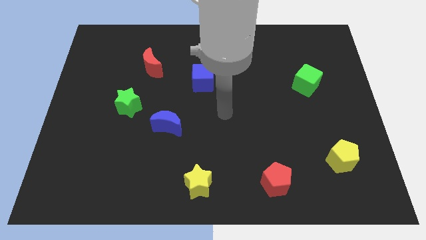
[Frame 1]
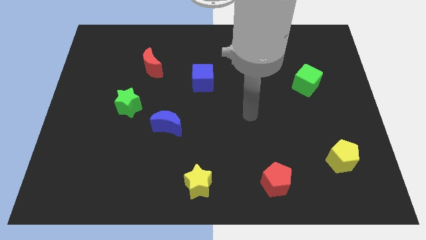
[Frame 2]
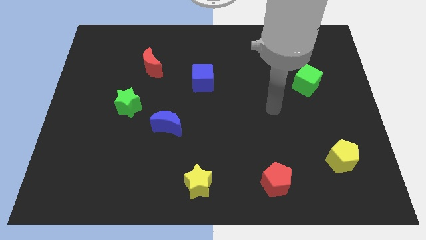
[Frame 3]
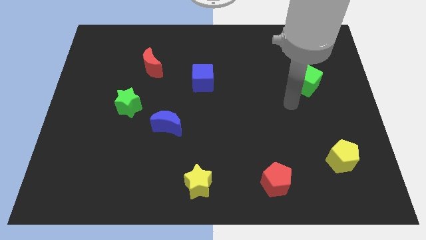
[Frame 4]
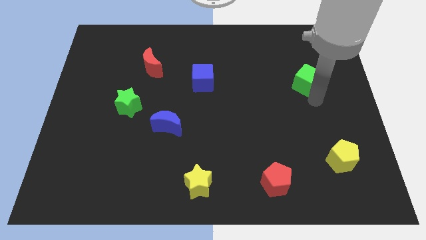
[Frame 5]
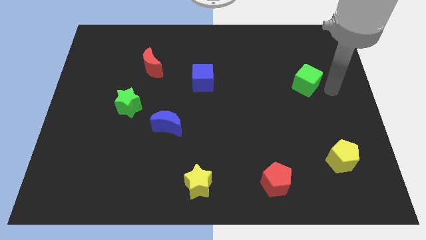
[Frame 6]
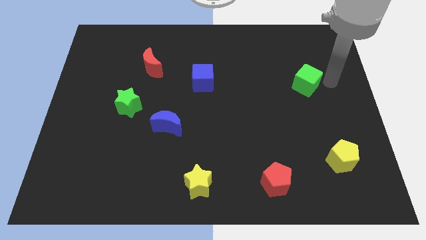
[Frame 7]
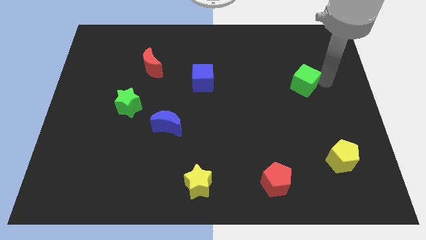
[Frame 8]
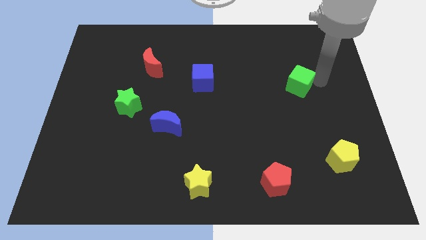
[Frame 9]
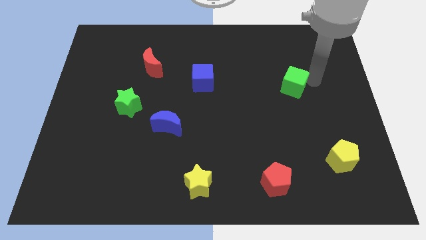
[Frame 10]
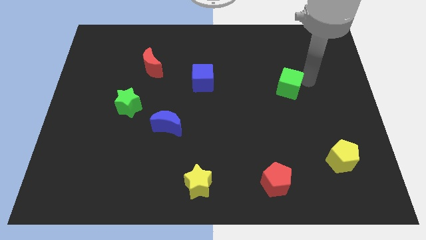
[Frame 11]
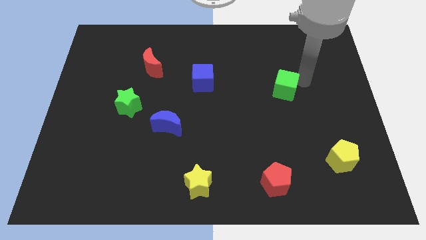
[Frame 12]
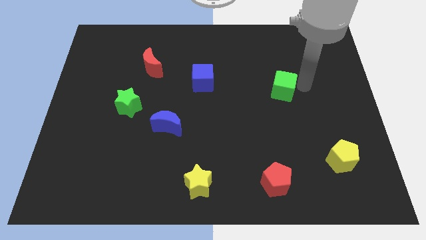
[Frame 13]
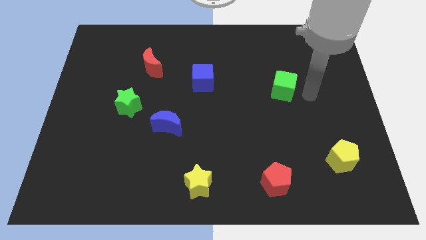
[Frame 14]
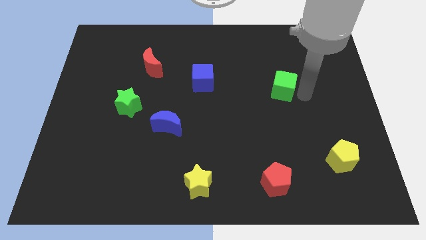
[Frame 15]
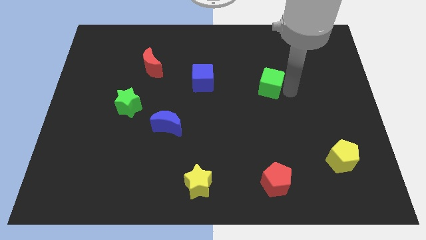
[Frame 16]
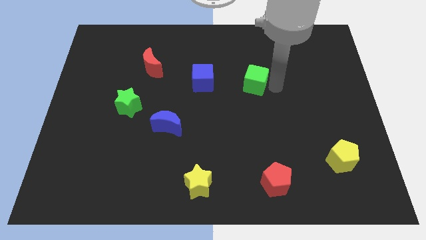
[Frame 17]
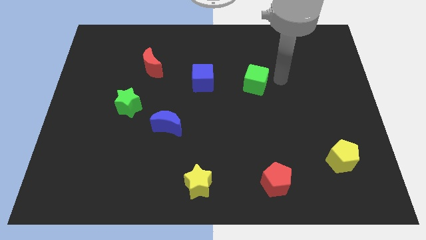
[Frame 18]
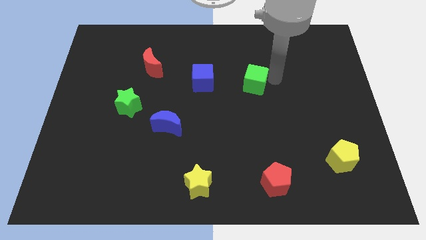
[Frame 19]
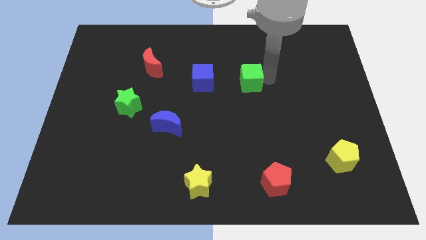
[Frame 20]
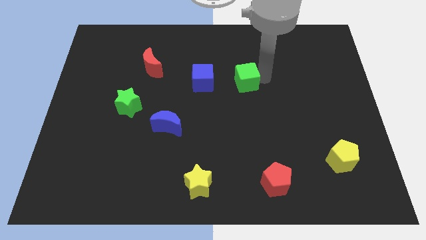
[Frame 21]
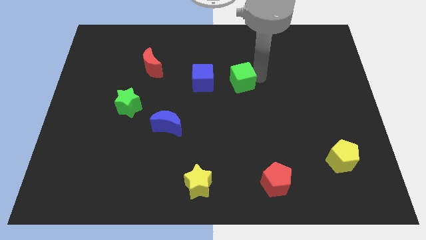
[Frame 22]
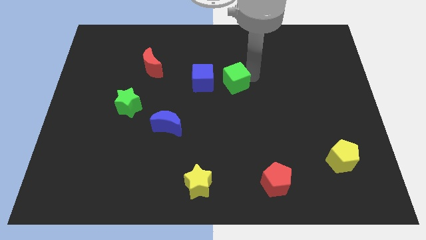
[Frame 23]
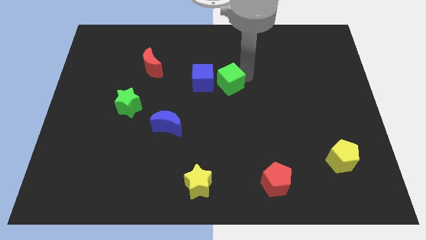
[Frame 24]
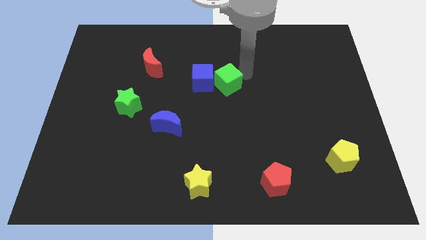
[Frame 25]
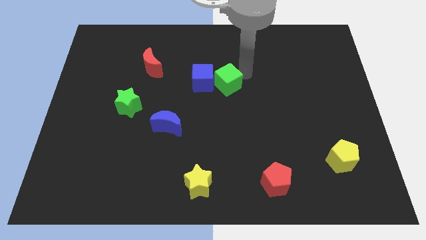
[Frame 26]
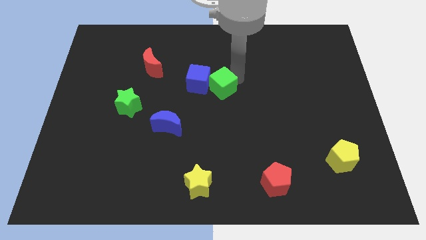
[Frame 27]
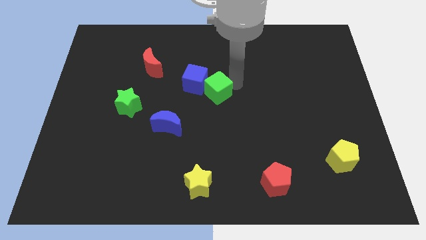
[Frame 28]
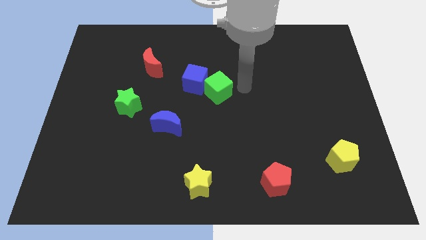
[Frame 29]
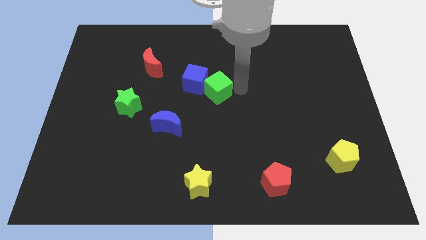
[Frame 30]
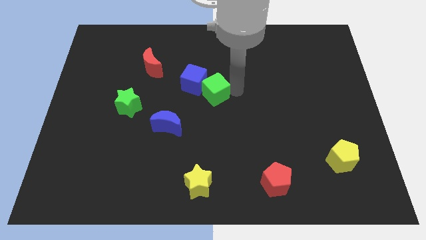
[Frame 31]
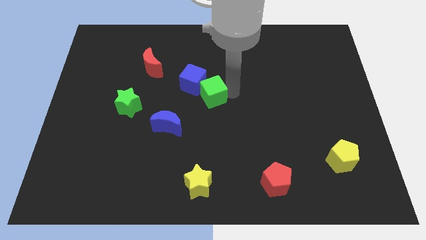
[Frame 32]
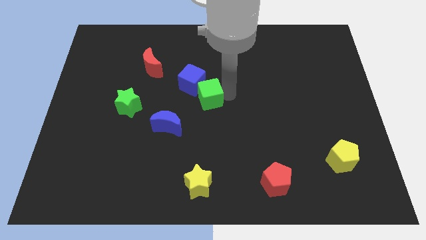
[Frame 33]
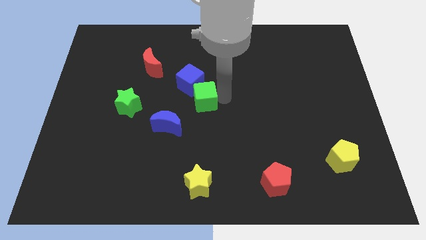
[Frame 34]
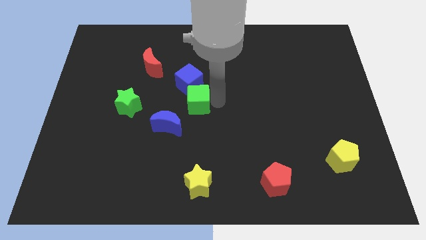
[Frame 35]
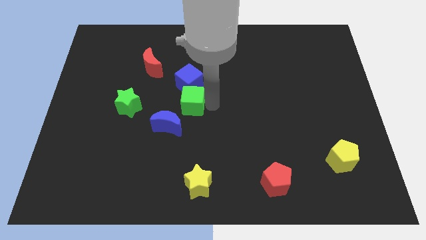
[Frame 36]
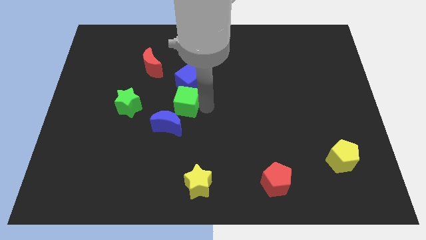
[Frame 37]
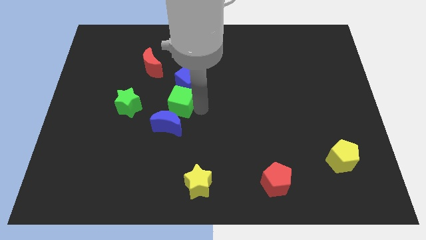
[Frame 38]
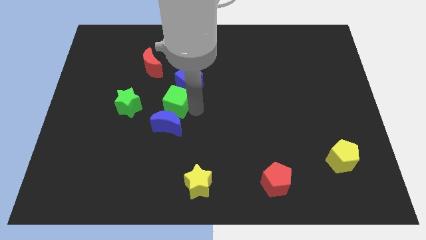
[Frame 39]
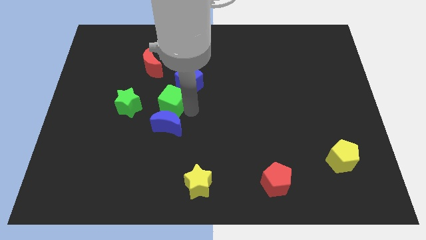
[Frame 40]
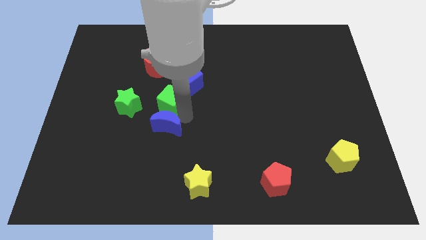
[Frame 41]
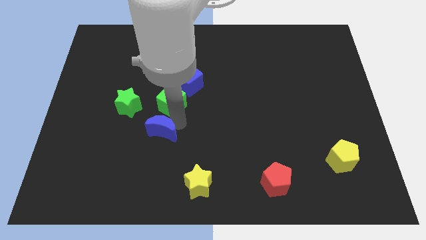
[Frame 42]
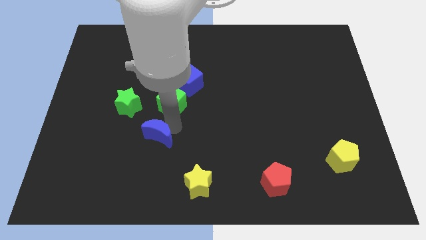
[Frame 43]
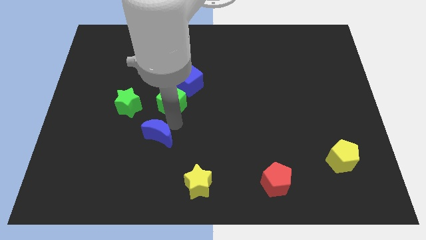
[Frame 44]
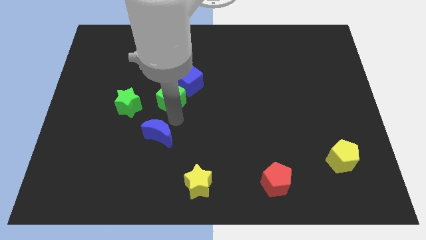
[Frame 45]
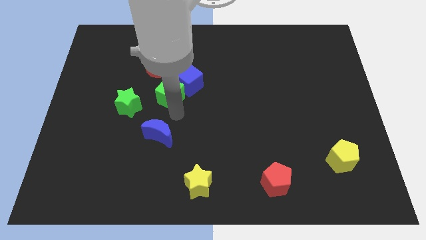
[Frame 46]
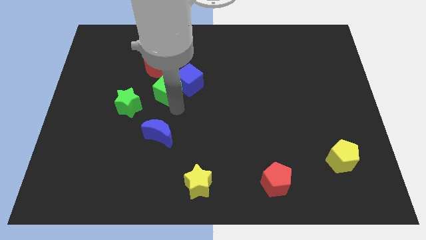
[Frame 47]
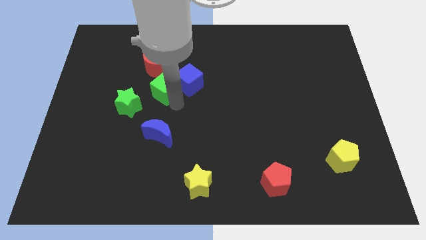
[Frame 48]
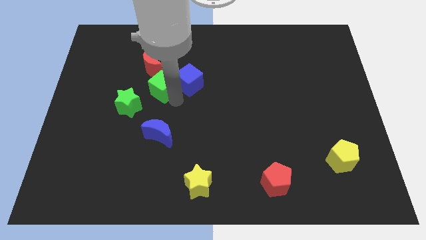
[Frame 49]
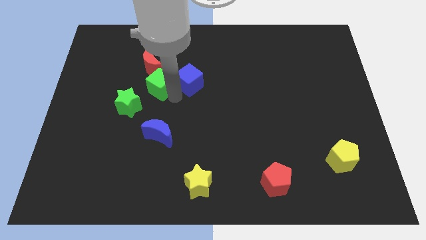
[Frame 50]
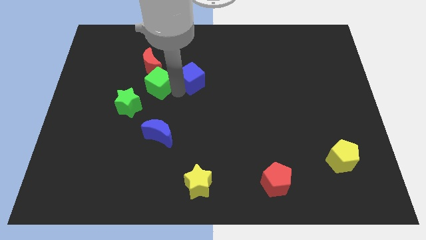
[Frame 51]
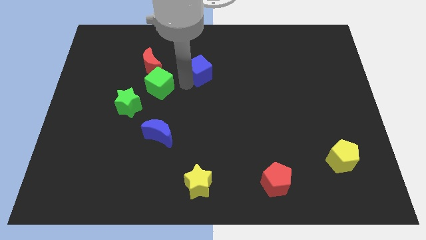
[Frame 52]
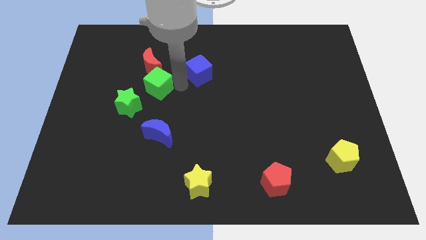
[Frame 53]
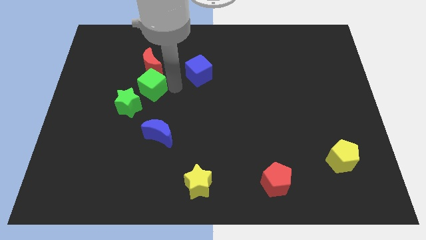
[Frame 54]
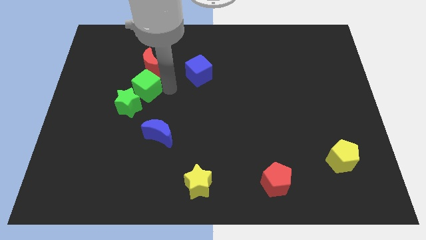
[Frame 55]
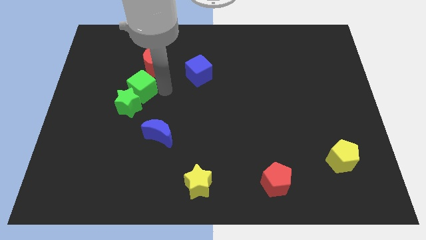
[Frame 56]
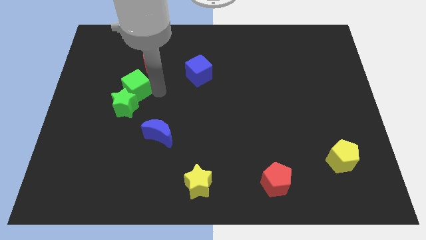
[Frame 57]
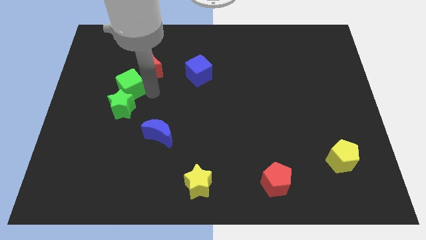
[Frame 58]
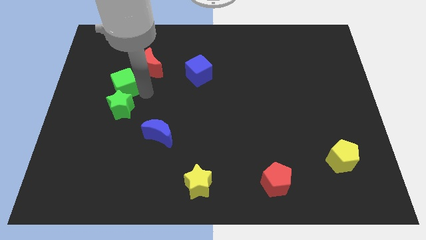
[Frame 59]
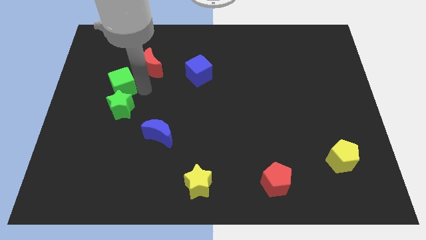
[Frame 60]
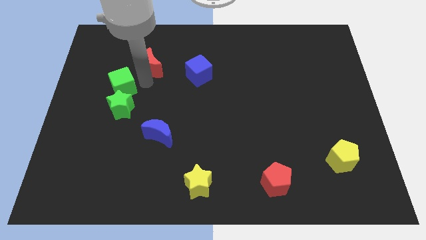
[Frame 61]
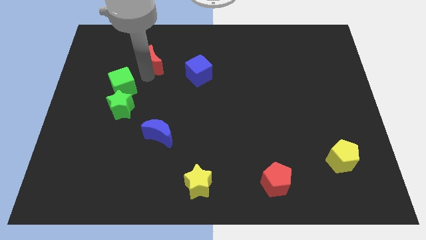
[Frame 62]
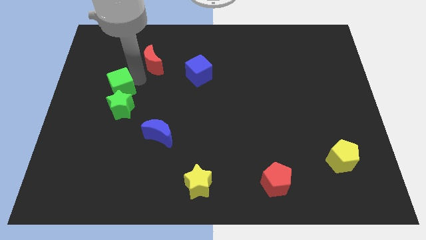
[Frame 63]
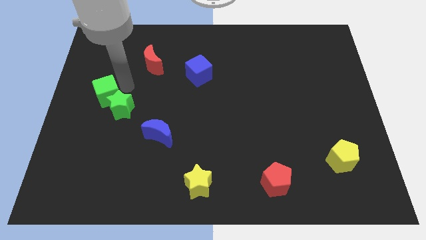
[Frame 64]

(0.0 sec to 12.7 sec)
move the green cube to the center left

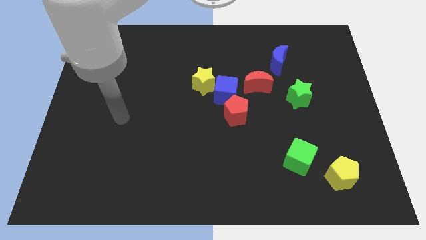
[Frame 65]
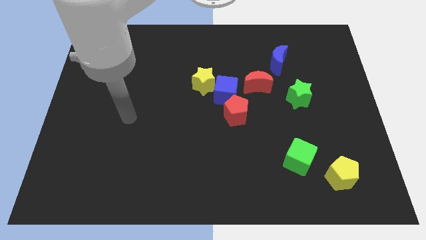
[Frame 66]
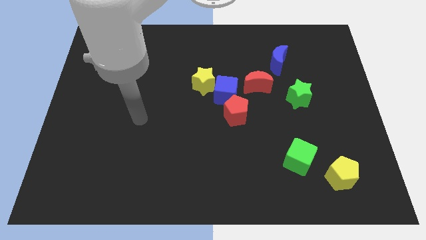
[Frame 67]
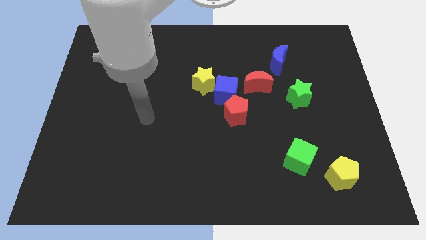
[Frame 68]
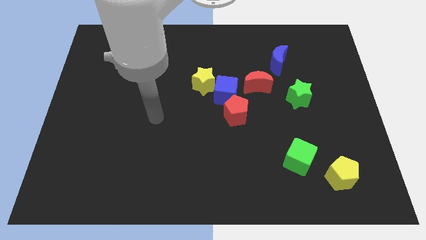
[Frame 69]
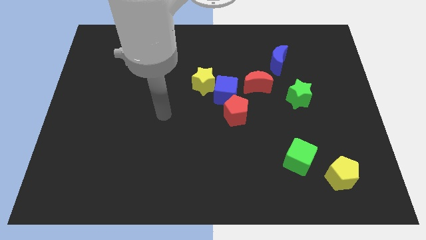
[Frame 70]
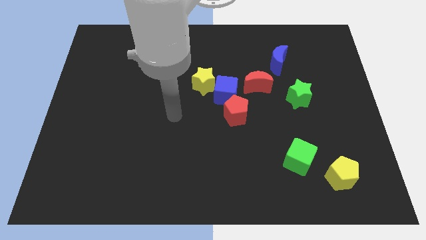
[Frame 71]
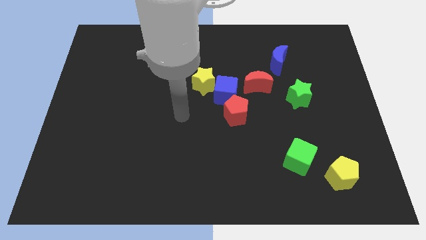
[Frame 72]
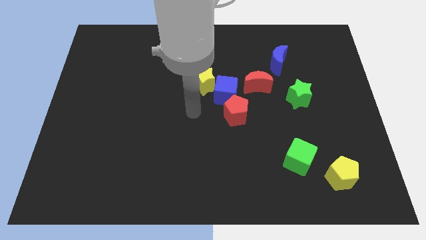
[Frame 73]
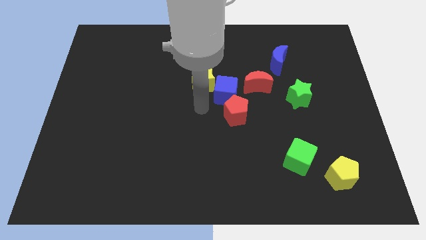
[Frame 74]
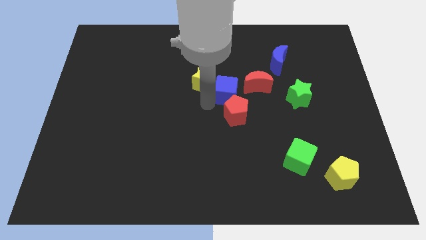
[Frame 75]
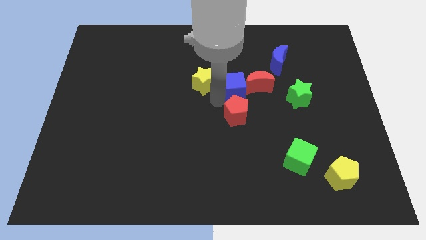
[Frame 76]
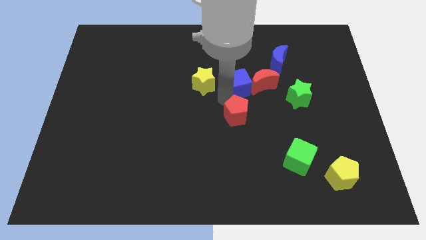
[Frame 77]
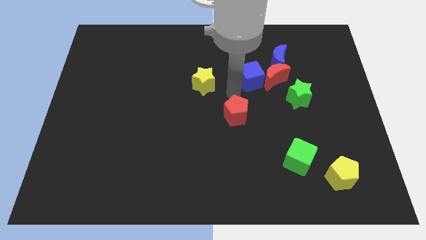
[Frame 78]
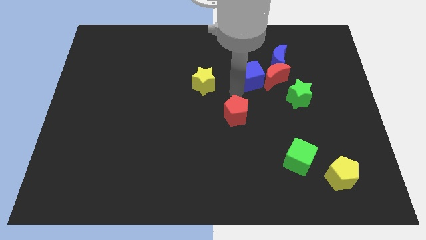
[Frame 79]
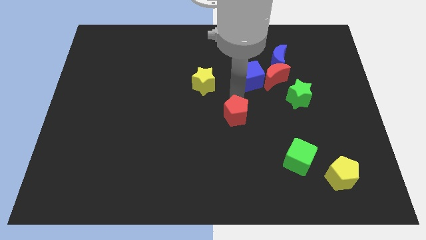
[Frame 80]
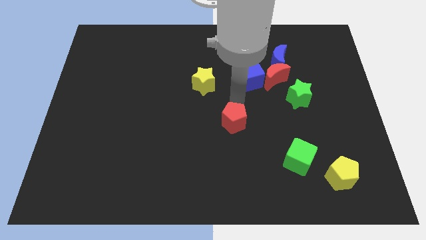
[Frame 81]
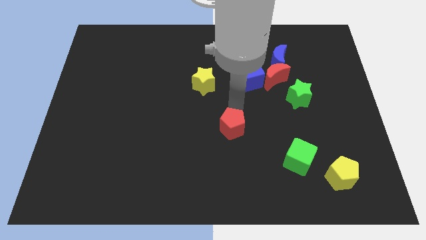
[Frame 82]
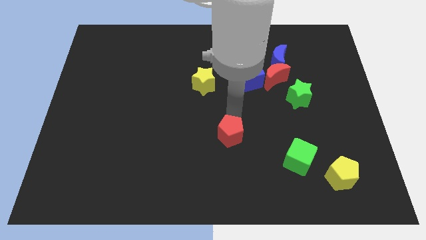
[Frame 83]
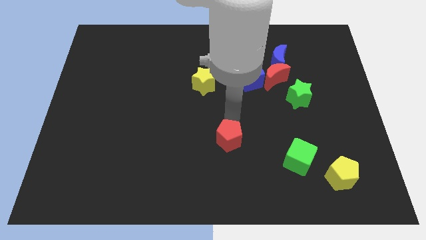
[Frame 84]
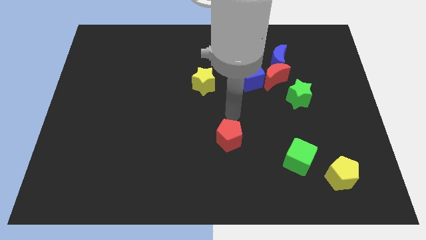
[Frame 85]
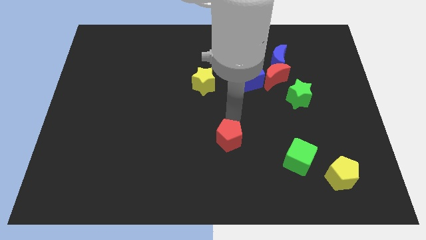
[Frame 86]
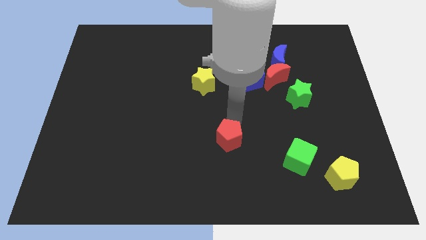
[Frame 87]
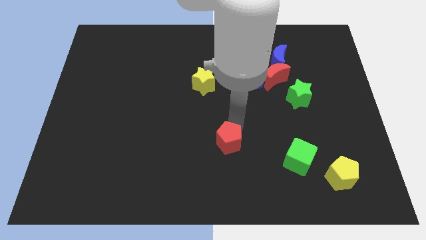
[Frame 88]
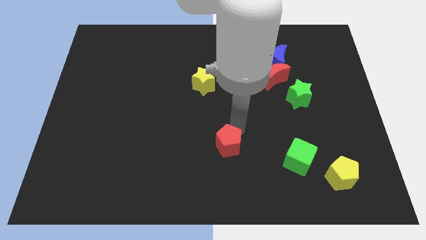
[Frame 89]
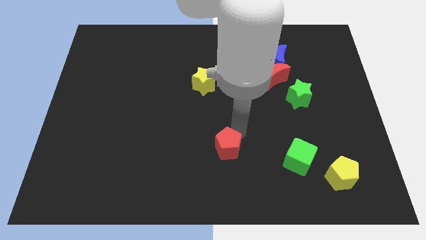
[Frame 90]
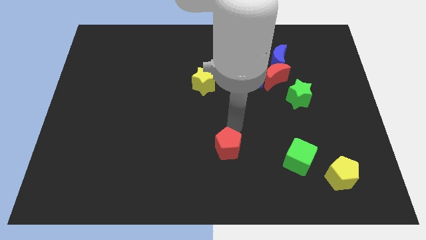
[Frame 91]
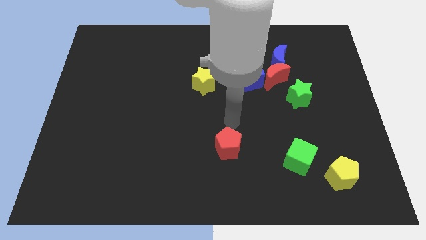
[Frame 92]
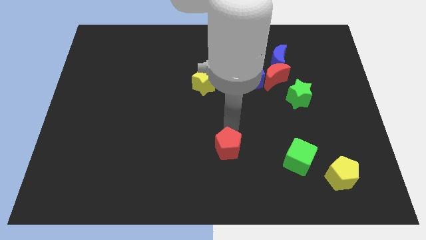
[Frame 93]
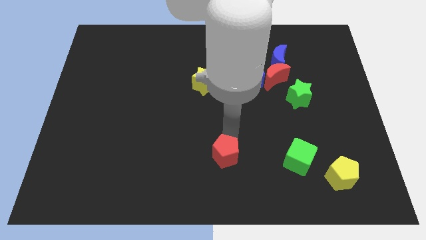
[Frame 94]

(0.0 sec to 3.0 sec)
slide the red pentagon to the bottom
